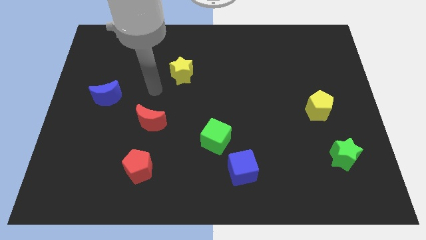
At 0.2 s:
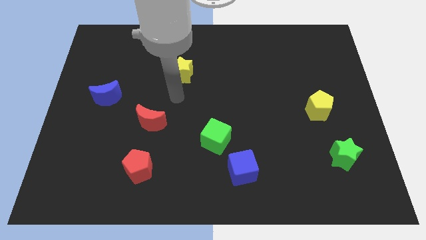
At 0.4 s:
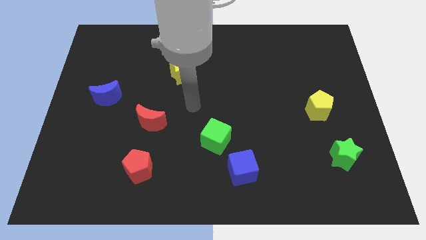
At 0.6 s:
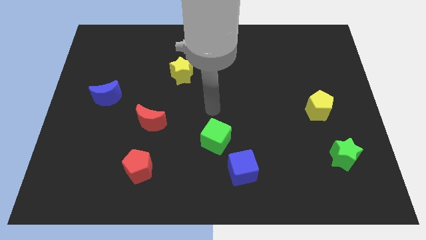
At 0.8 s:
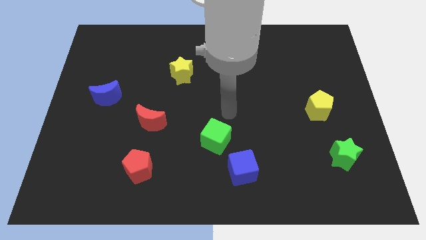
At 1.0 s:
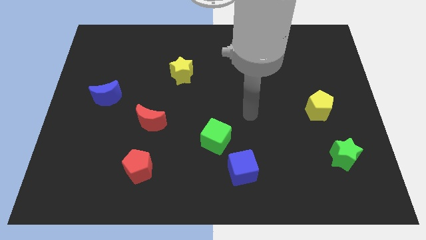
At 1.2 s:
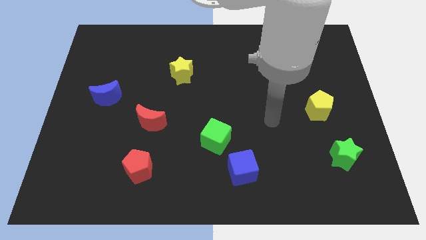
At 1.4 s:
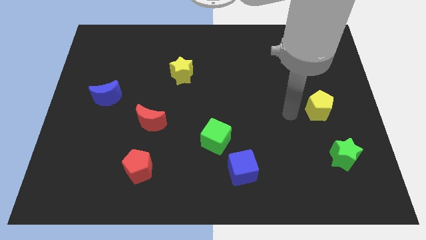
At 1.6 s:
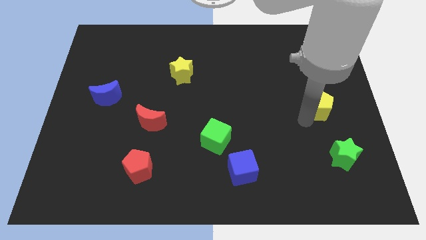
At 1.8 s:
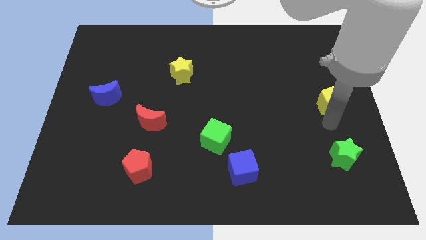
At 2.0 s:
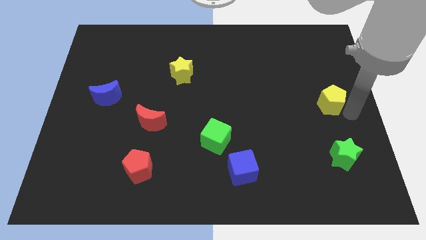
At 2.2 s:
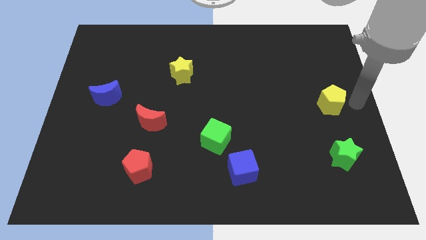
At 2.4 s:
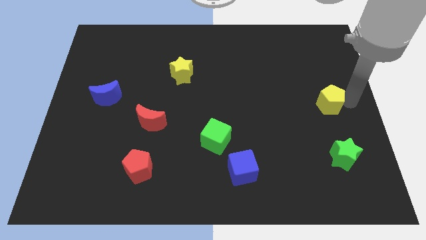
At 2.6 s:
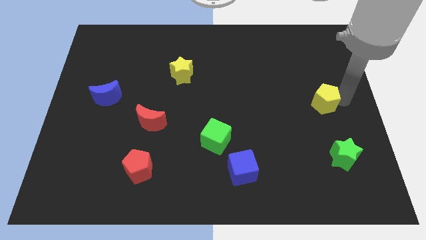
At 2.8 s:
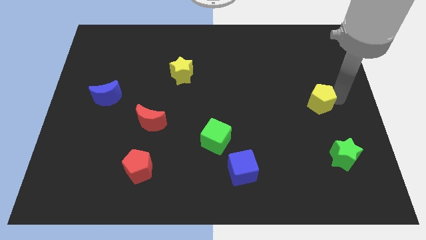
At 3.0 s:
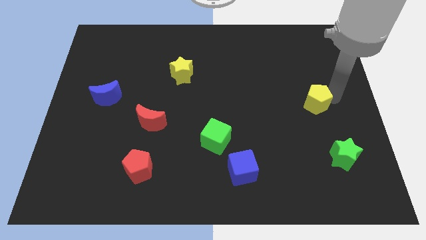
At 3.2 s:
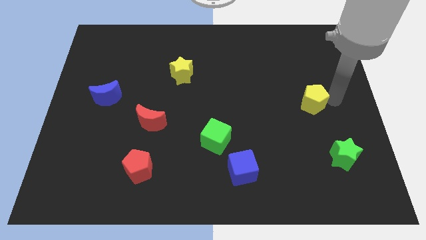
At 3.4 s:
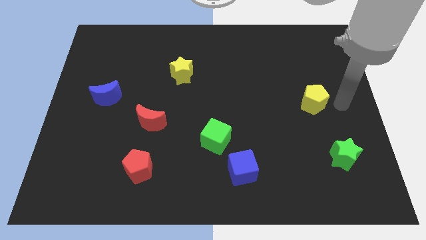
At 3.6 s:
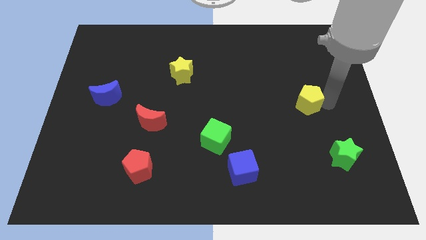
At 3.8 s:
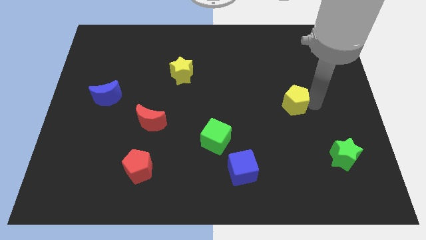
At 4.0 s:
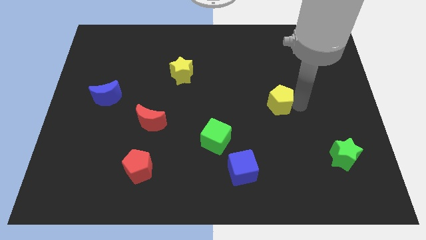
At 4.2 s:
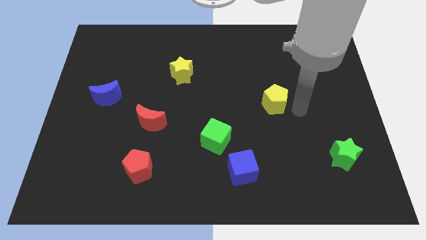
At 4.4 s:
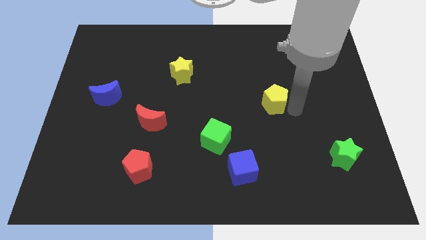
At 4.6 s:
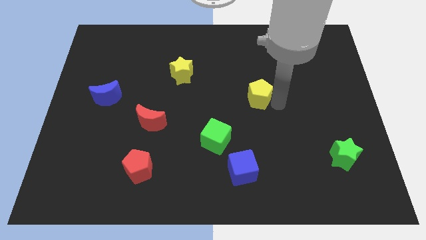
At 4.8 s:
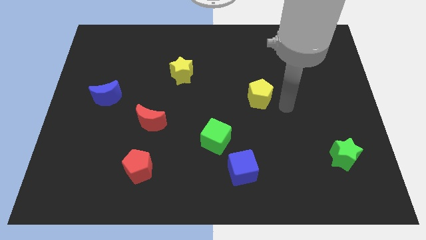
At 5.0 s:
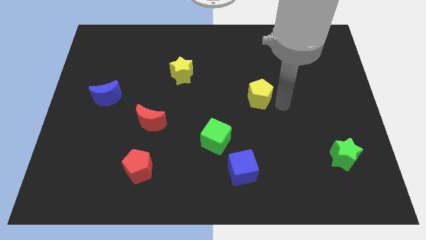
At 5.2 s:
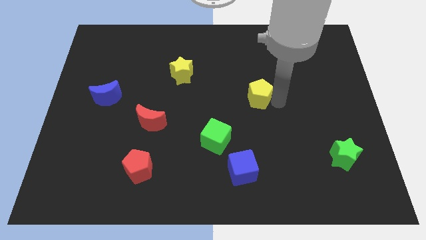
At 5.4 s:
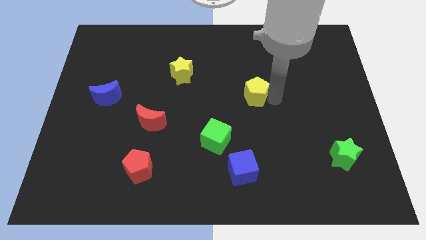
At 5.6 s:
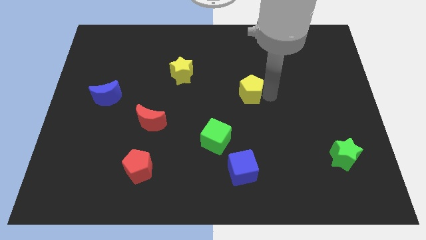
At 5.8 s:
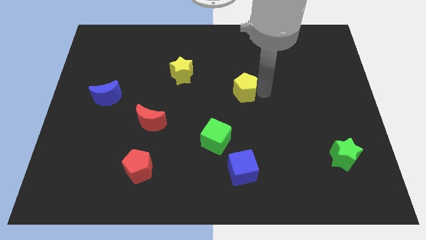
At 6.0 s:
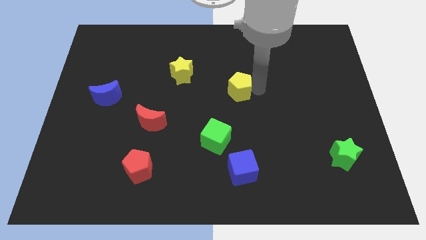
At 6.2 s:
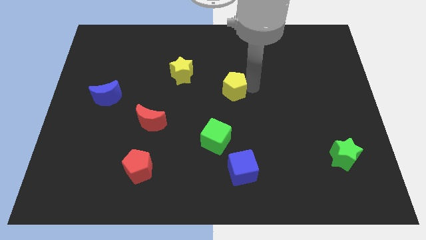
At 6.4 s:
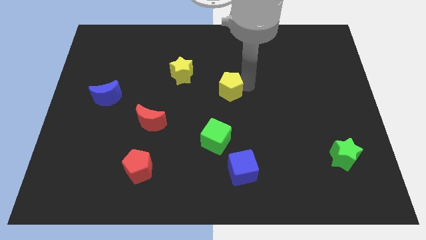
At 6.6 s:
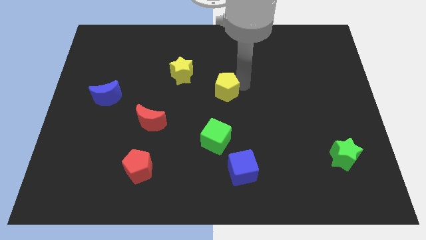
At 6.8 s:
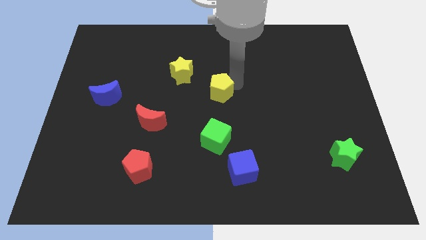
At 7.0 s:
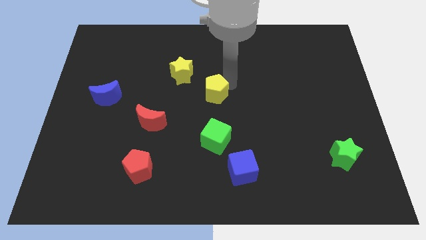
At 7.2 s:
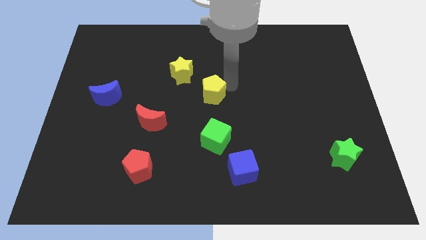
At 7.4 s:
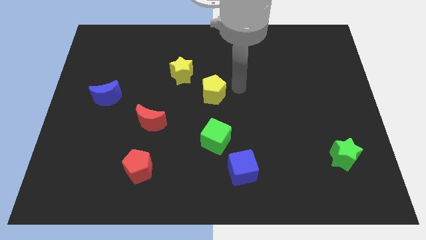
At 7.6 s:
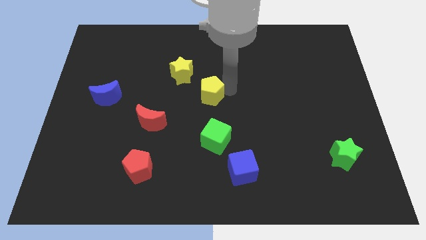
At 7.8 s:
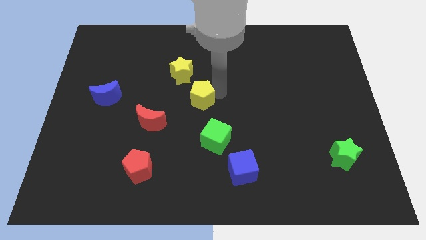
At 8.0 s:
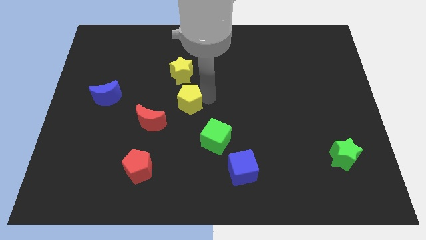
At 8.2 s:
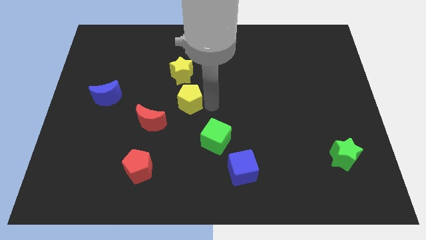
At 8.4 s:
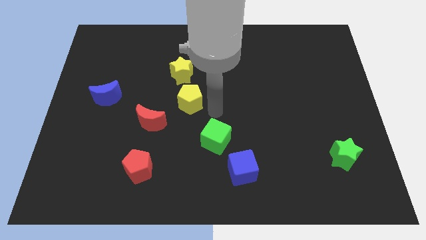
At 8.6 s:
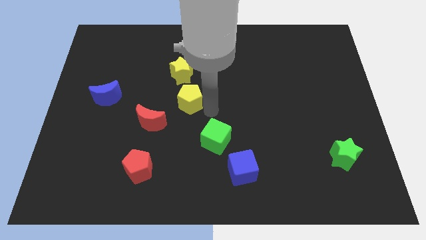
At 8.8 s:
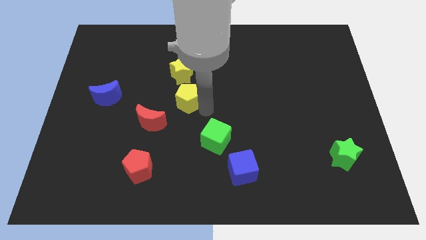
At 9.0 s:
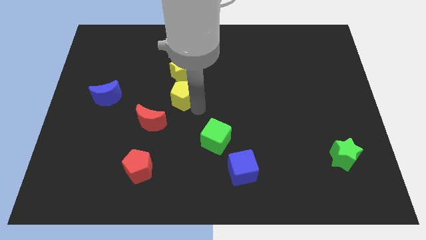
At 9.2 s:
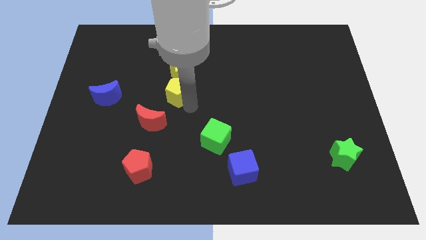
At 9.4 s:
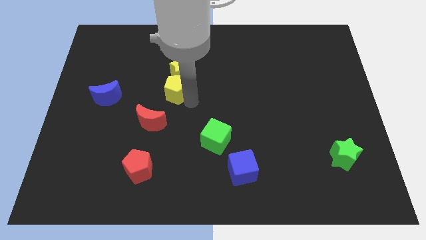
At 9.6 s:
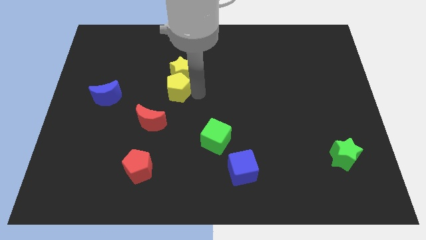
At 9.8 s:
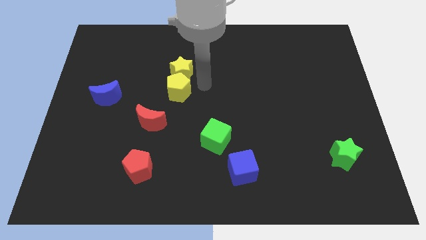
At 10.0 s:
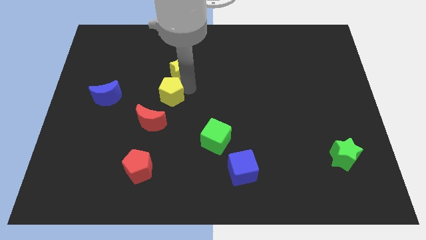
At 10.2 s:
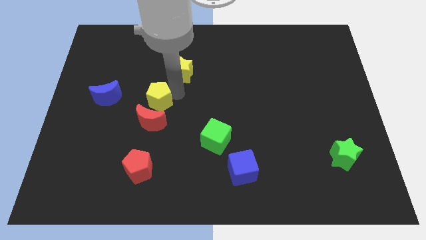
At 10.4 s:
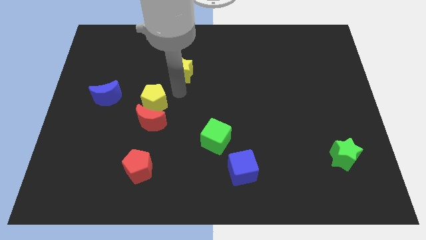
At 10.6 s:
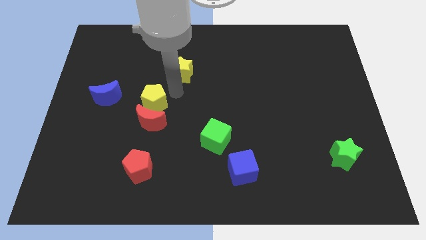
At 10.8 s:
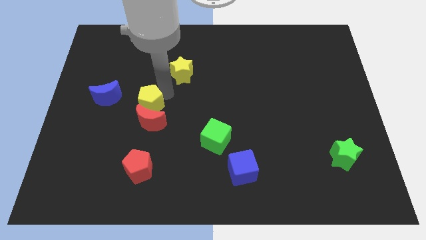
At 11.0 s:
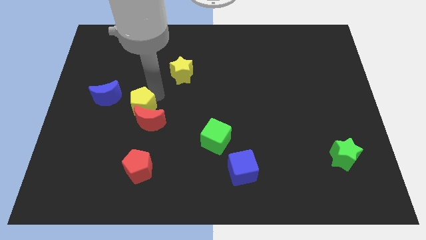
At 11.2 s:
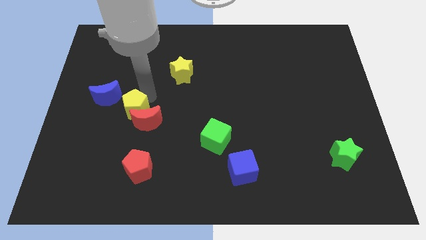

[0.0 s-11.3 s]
move the yellow pentagon just left of the red moon

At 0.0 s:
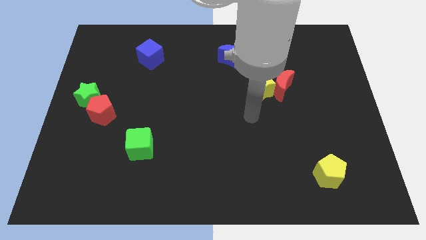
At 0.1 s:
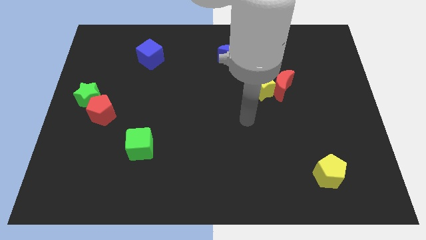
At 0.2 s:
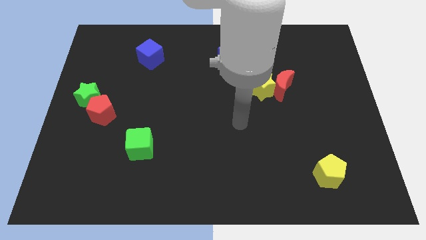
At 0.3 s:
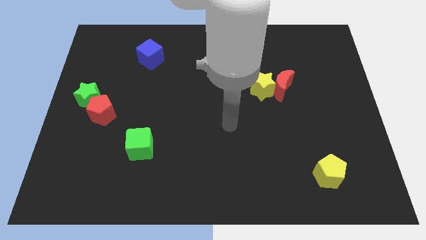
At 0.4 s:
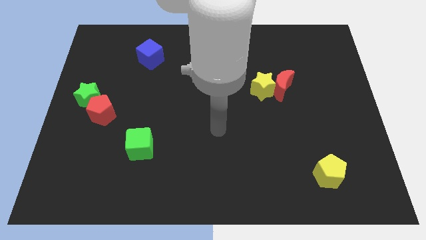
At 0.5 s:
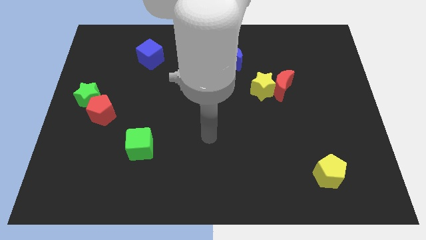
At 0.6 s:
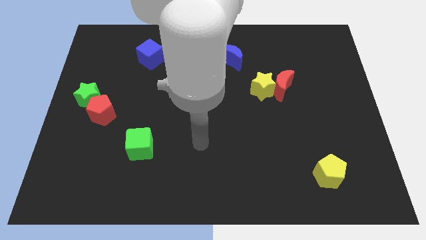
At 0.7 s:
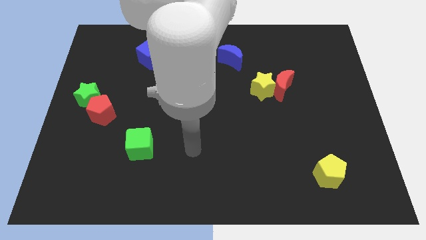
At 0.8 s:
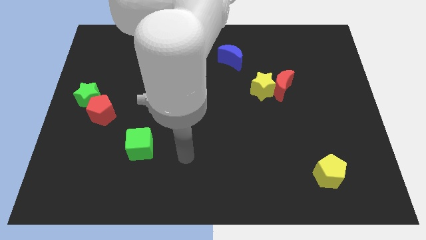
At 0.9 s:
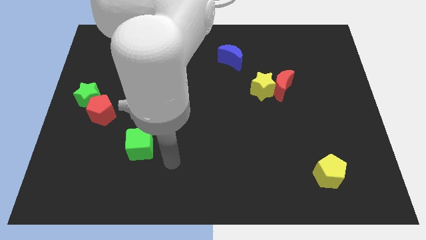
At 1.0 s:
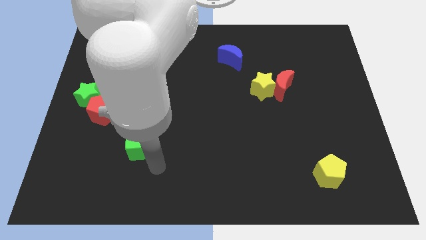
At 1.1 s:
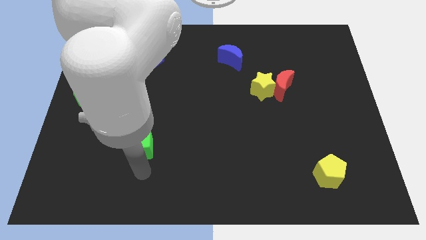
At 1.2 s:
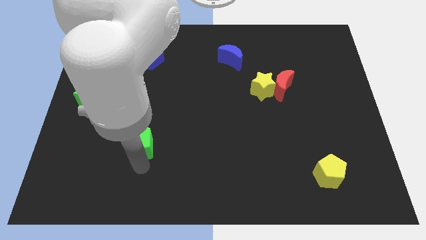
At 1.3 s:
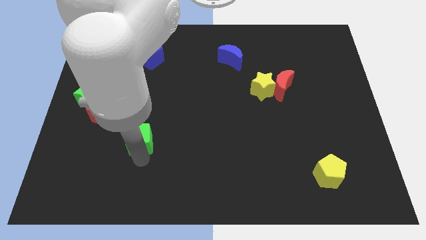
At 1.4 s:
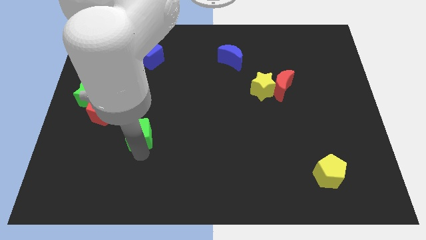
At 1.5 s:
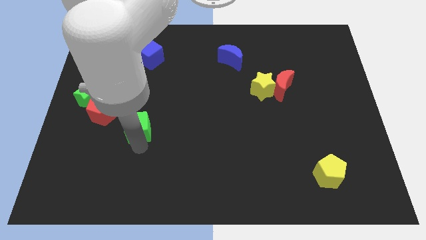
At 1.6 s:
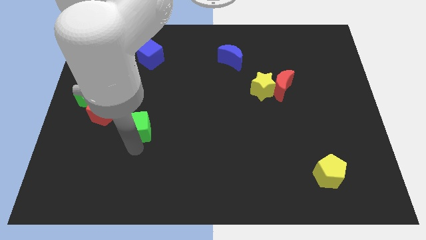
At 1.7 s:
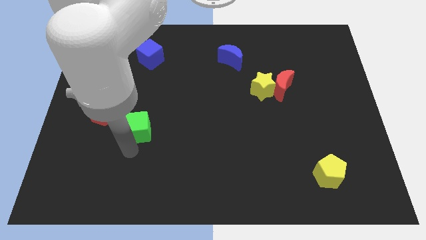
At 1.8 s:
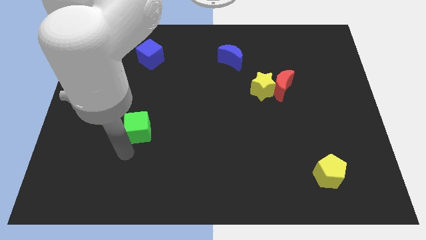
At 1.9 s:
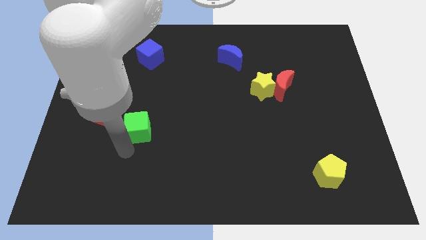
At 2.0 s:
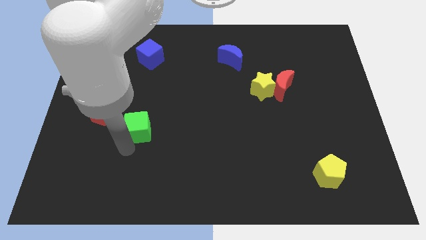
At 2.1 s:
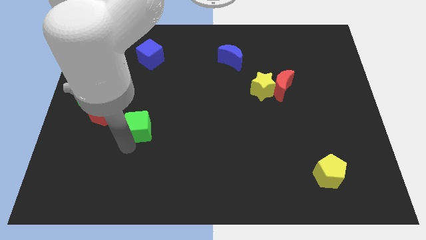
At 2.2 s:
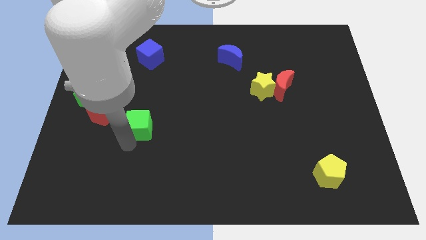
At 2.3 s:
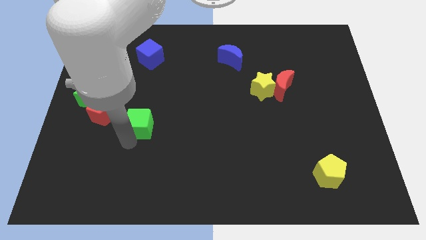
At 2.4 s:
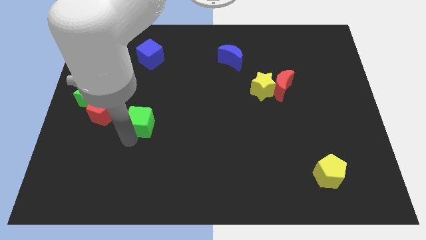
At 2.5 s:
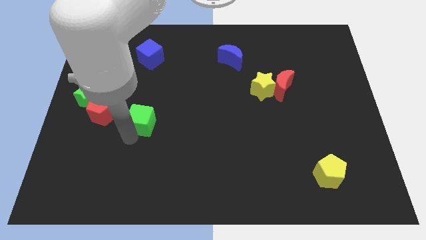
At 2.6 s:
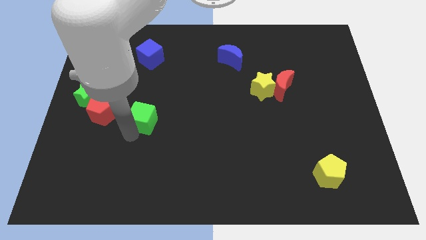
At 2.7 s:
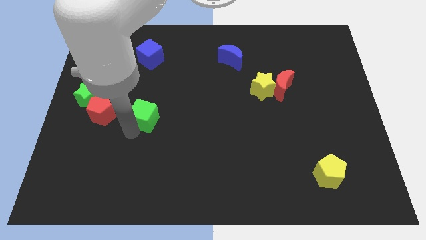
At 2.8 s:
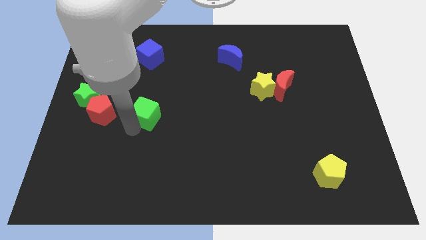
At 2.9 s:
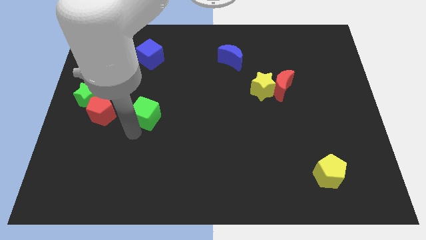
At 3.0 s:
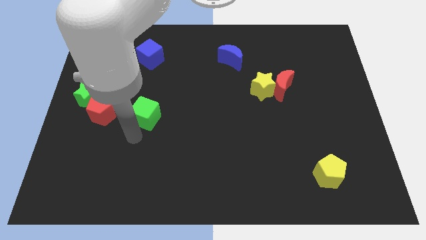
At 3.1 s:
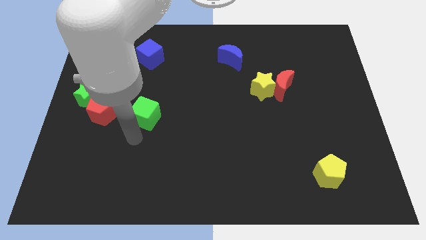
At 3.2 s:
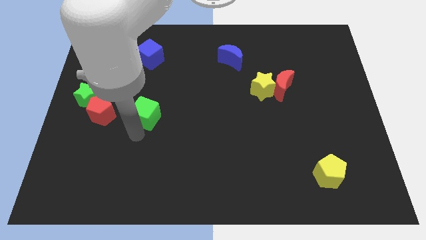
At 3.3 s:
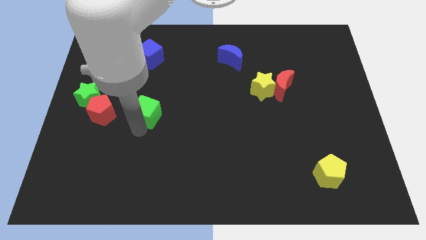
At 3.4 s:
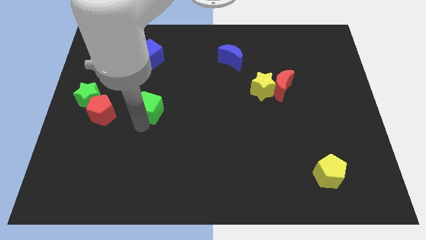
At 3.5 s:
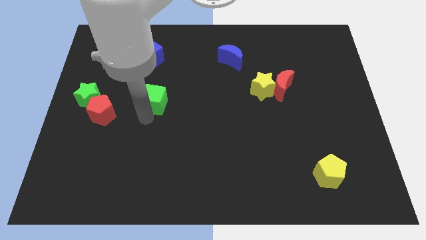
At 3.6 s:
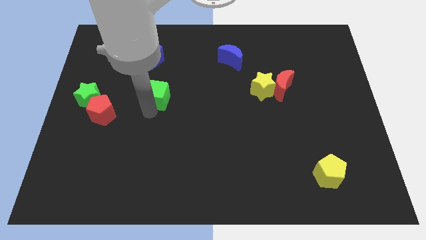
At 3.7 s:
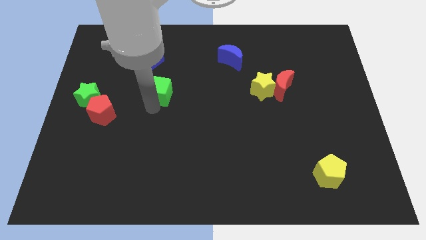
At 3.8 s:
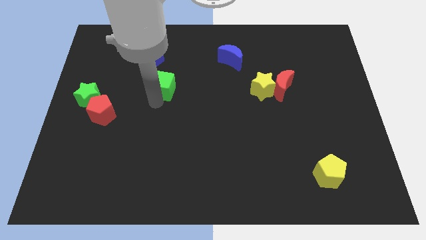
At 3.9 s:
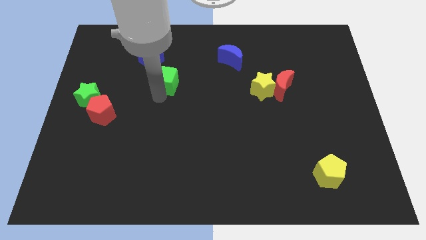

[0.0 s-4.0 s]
push the green cube to the bottom right of the blue cube
